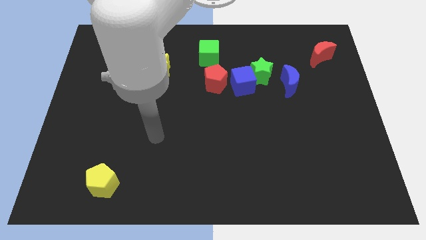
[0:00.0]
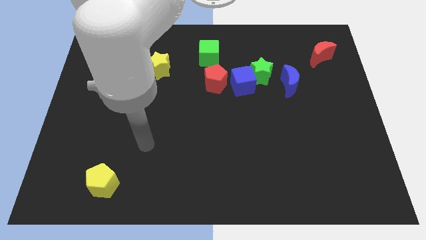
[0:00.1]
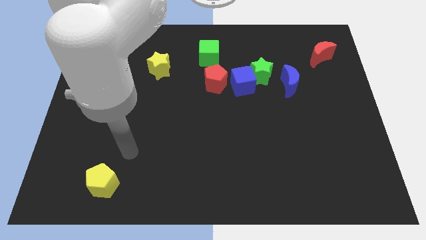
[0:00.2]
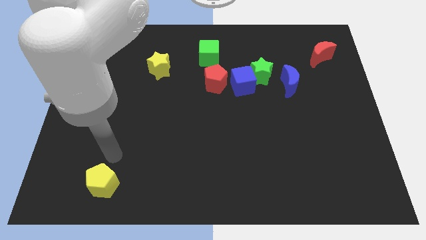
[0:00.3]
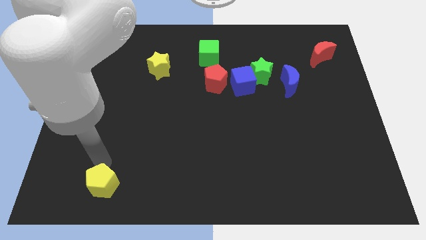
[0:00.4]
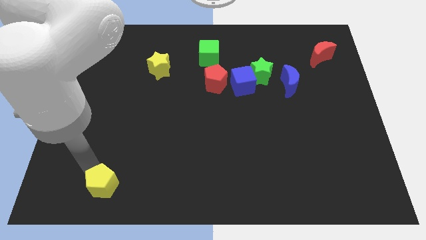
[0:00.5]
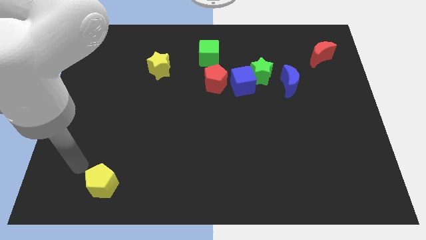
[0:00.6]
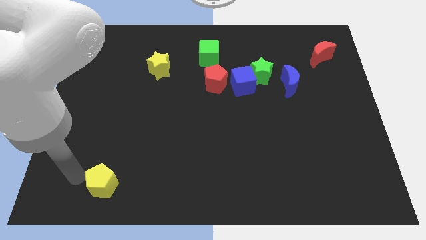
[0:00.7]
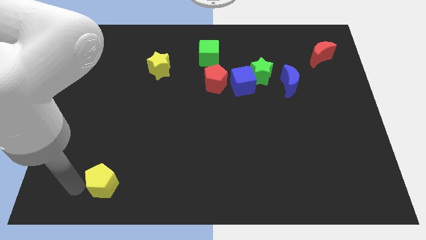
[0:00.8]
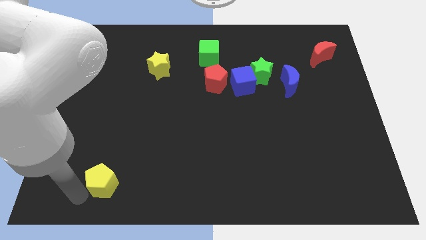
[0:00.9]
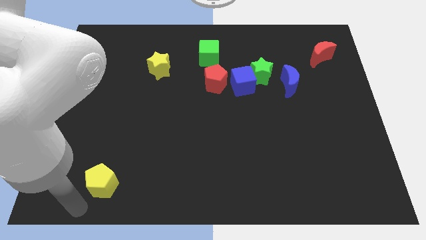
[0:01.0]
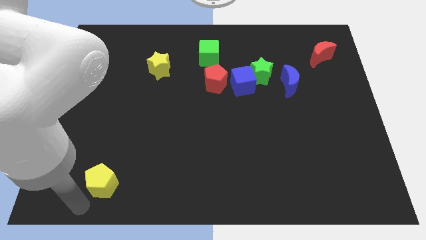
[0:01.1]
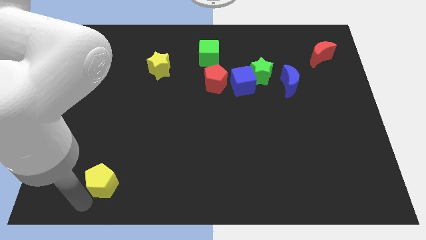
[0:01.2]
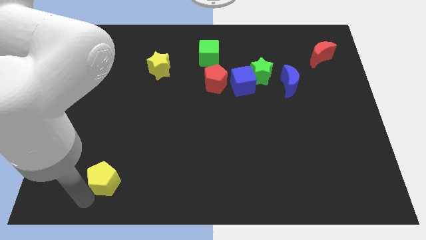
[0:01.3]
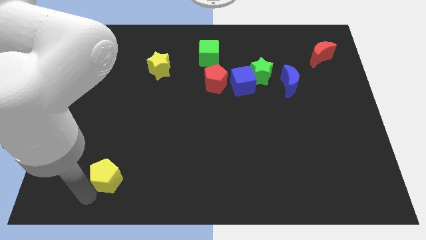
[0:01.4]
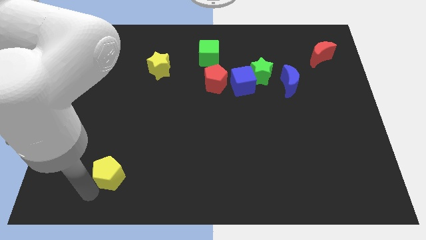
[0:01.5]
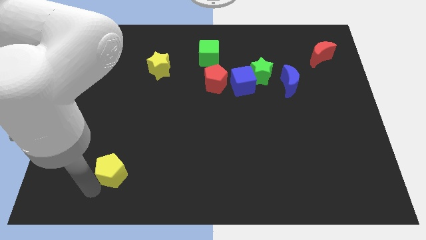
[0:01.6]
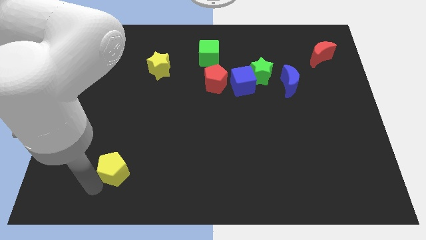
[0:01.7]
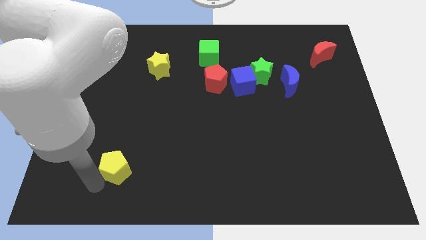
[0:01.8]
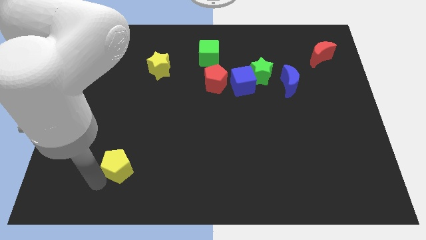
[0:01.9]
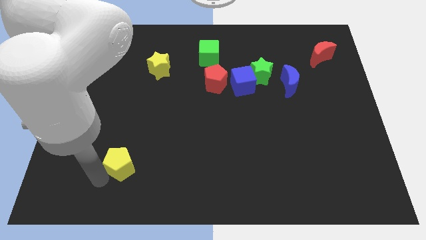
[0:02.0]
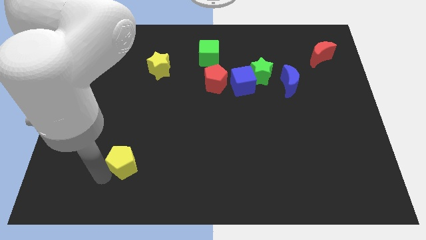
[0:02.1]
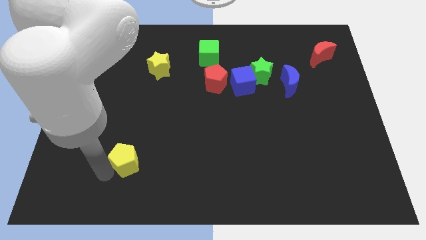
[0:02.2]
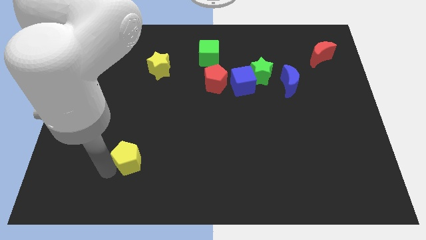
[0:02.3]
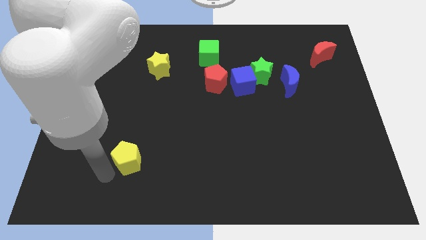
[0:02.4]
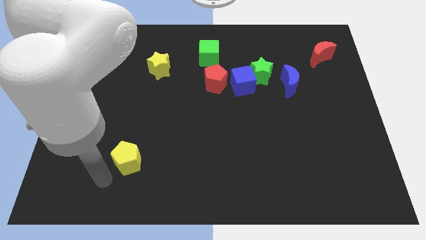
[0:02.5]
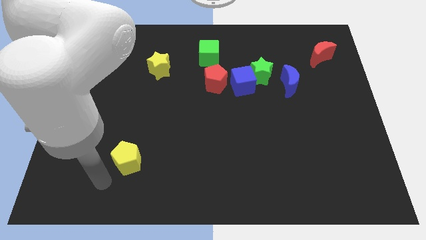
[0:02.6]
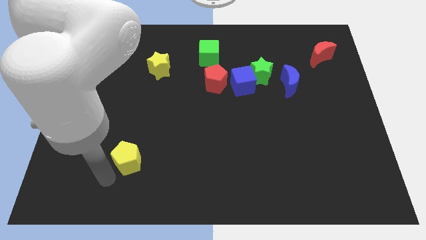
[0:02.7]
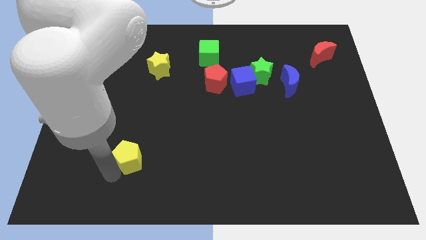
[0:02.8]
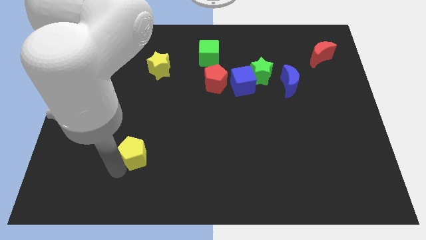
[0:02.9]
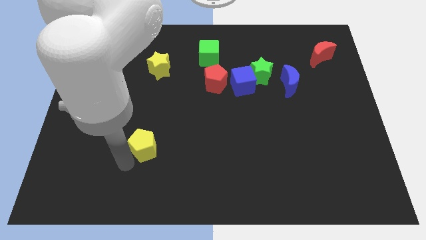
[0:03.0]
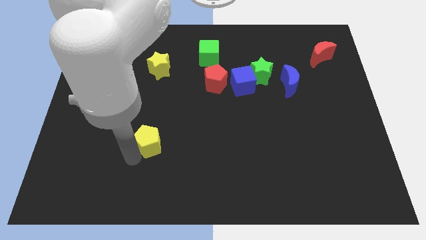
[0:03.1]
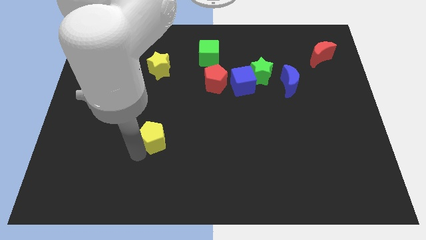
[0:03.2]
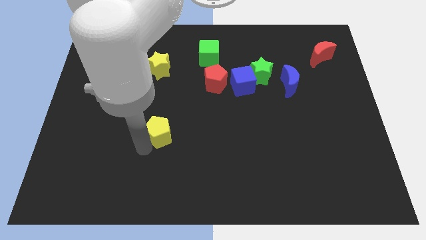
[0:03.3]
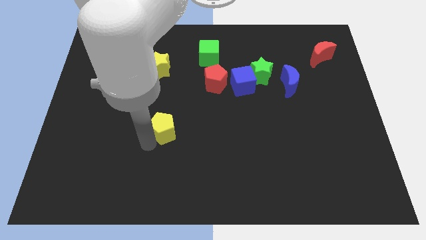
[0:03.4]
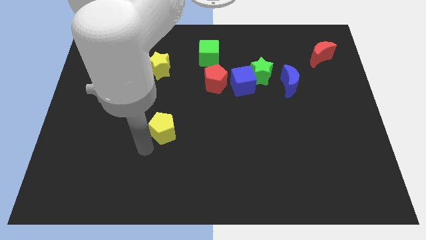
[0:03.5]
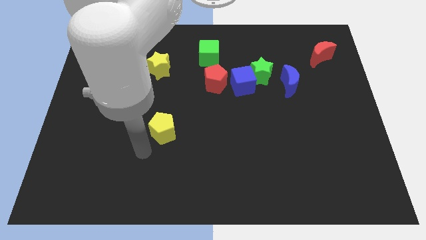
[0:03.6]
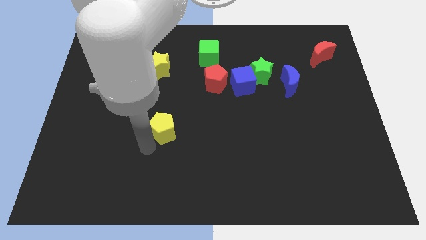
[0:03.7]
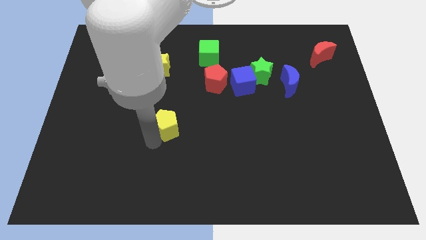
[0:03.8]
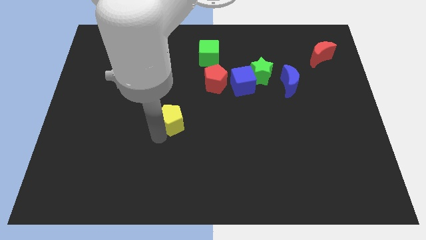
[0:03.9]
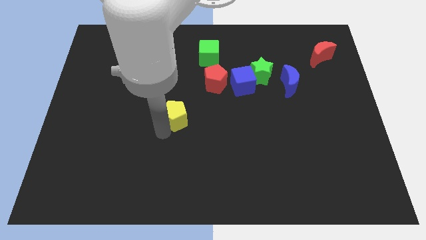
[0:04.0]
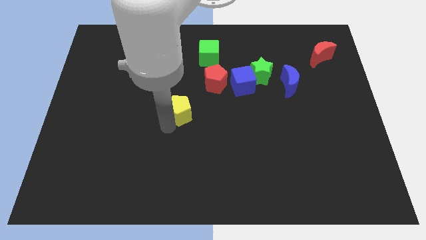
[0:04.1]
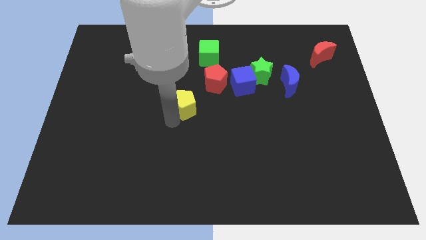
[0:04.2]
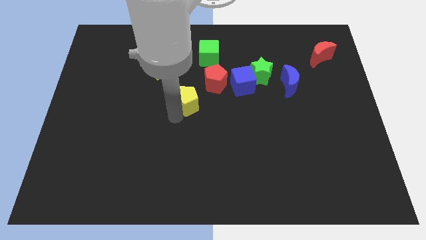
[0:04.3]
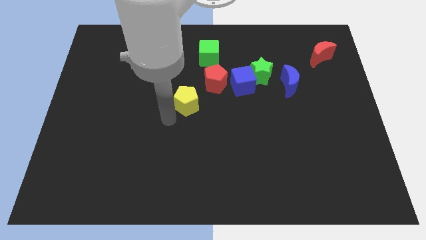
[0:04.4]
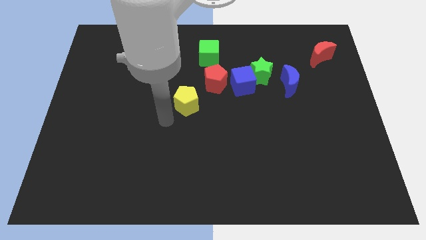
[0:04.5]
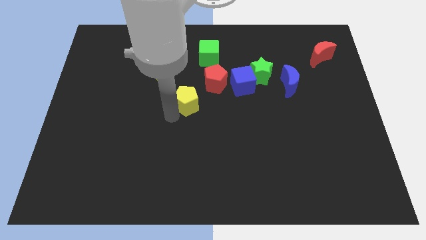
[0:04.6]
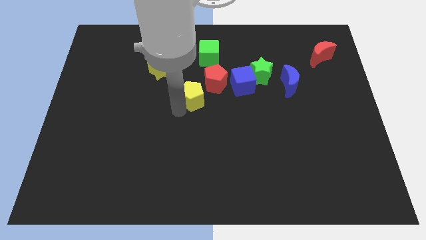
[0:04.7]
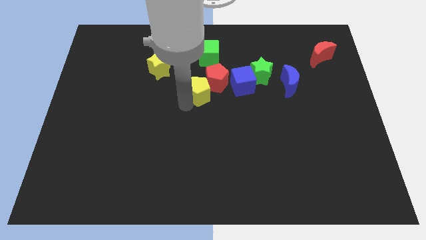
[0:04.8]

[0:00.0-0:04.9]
put the yellow pentagon towards the red pentagon

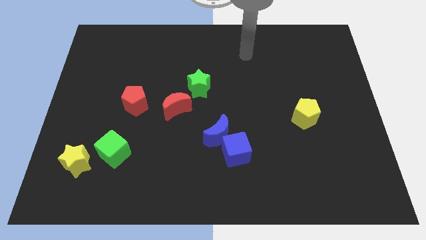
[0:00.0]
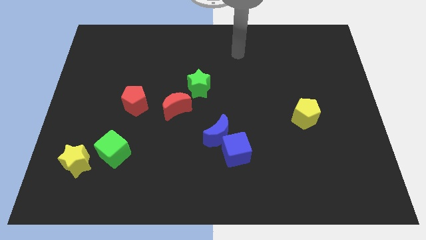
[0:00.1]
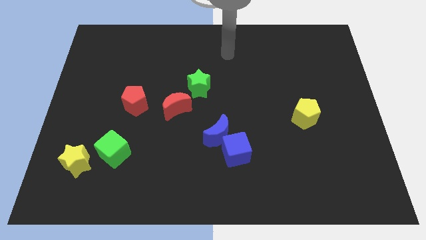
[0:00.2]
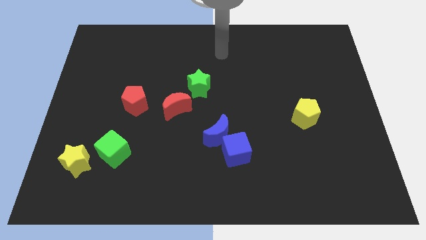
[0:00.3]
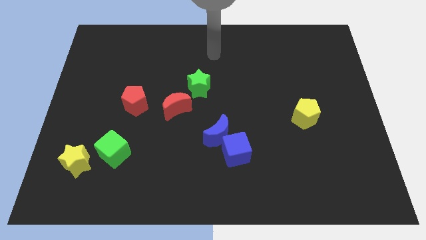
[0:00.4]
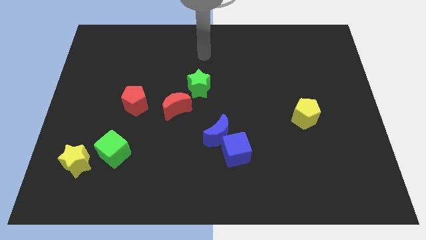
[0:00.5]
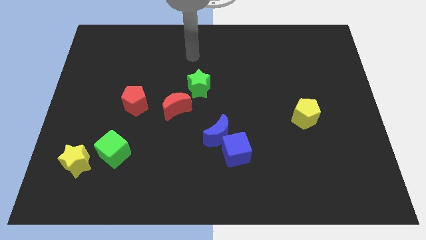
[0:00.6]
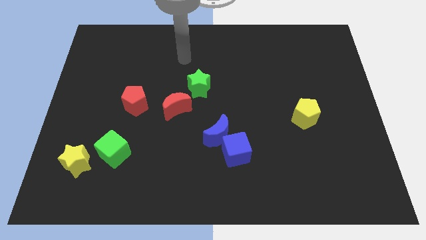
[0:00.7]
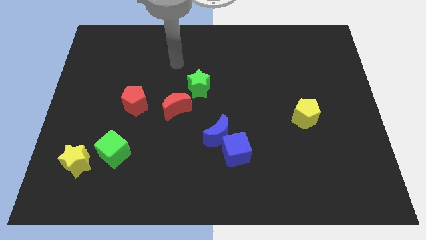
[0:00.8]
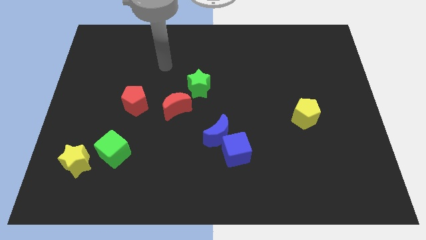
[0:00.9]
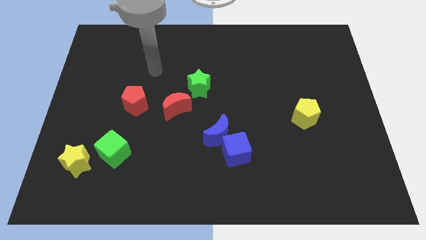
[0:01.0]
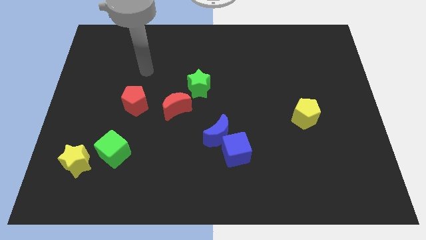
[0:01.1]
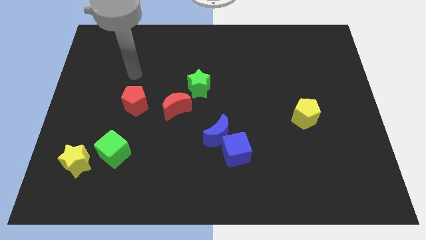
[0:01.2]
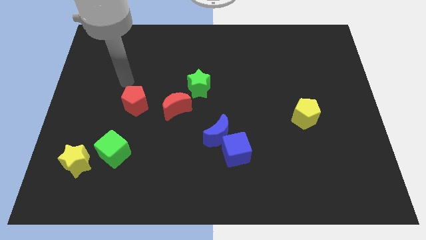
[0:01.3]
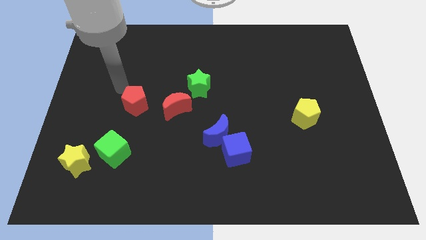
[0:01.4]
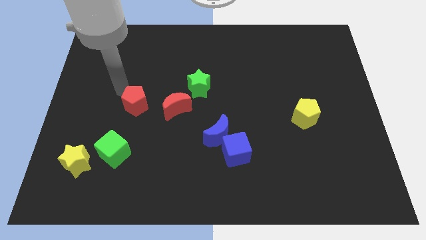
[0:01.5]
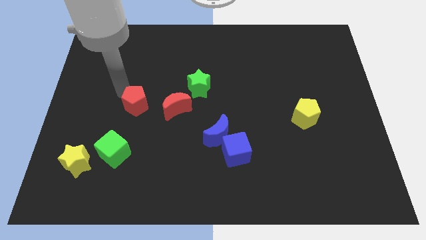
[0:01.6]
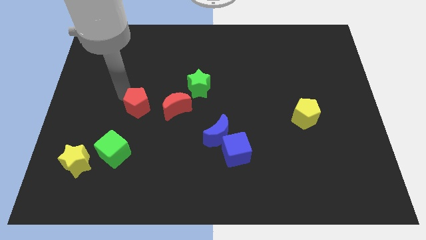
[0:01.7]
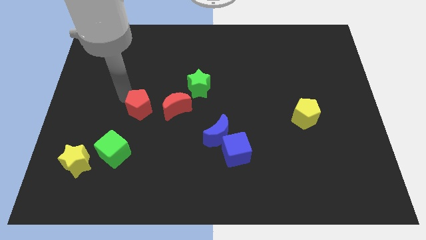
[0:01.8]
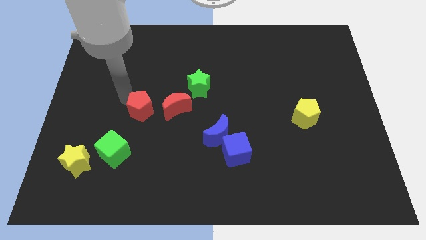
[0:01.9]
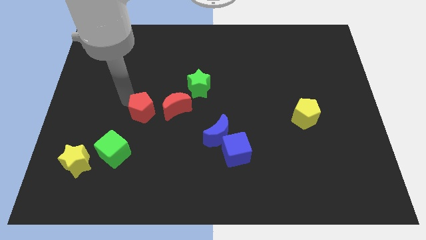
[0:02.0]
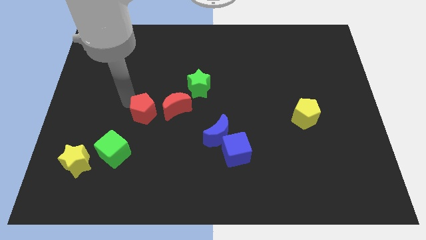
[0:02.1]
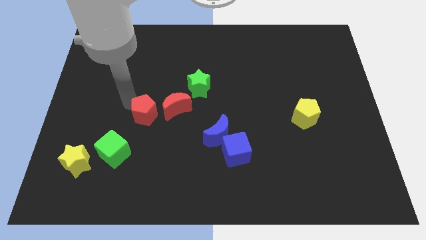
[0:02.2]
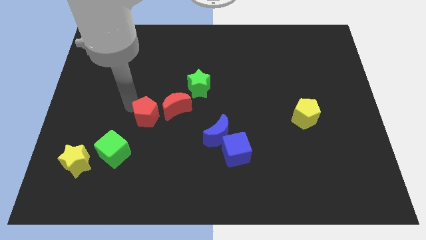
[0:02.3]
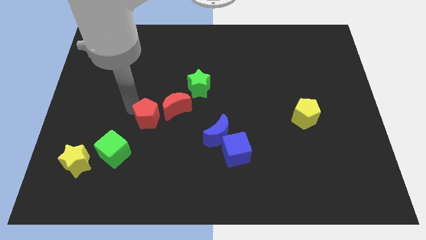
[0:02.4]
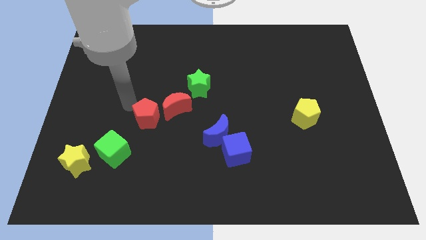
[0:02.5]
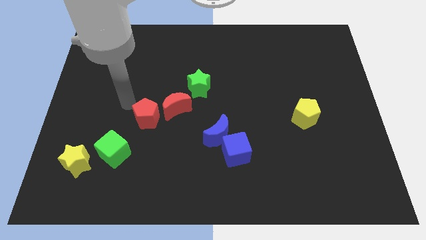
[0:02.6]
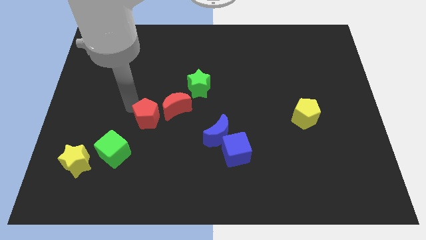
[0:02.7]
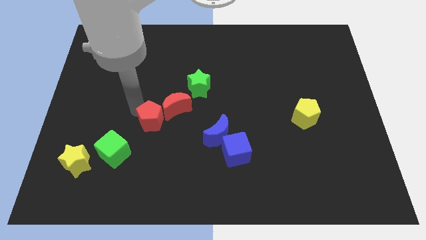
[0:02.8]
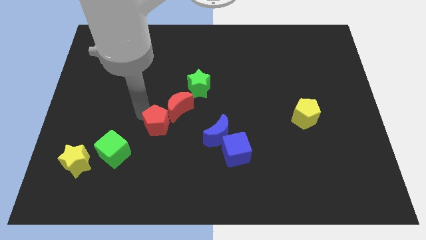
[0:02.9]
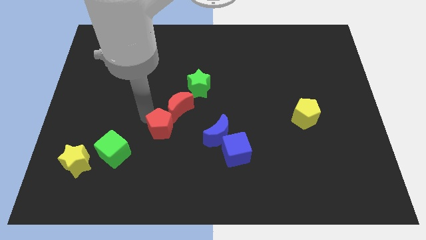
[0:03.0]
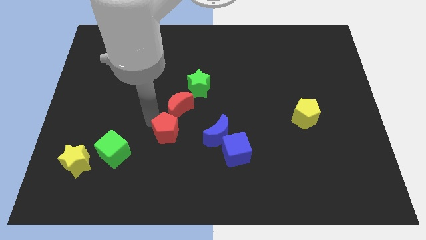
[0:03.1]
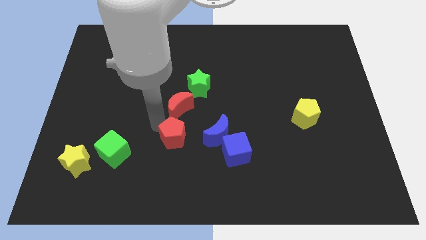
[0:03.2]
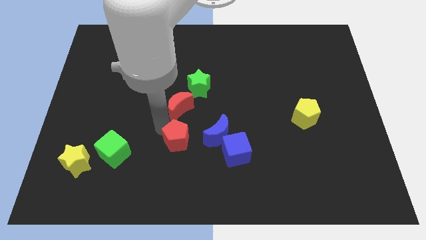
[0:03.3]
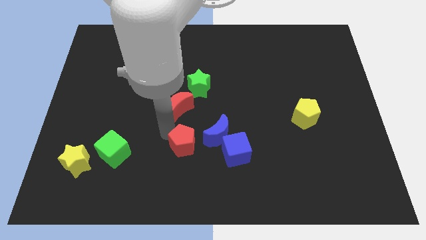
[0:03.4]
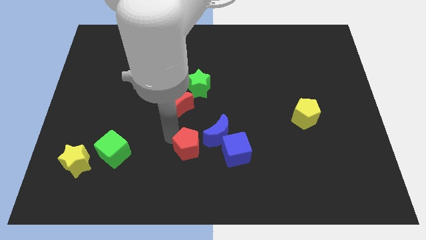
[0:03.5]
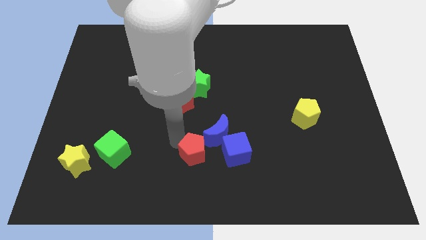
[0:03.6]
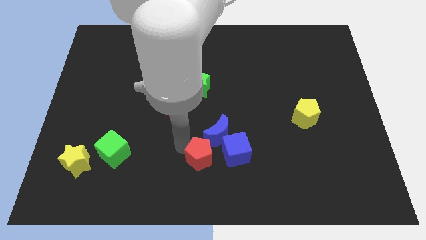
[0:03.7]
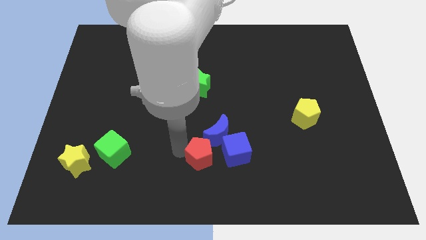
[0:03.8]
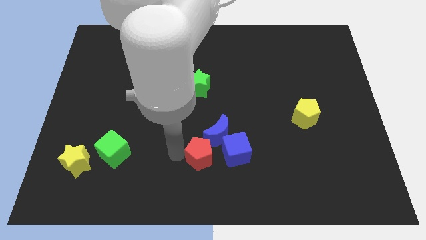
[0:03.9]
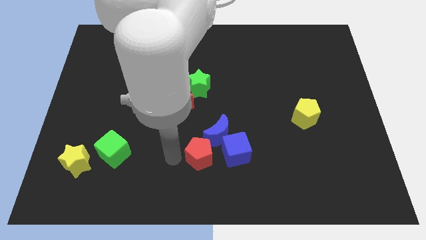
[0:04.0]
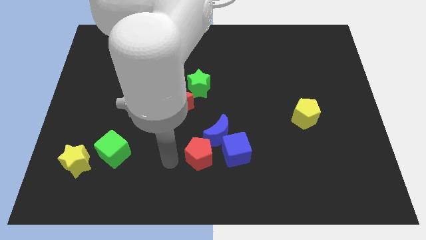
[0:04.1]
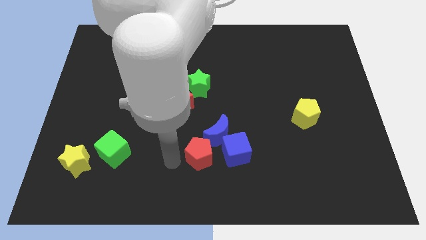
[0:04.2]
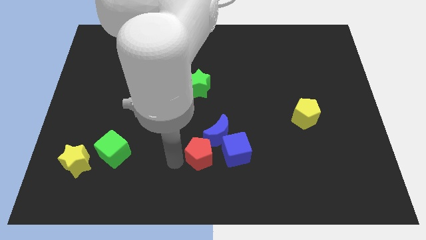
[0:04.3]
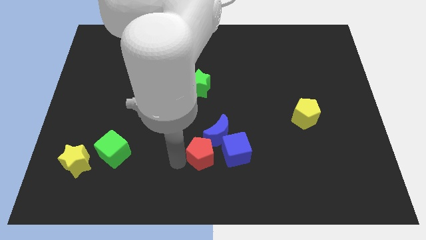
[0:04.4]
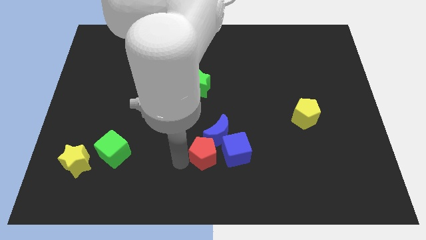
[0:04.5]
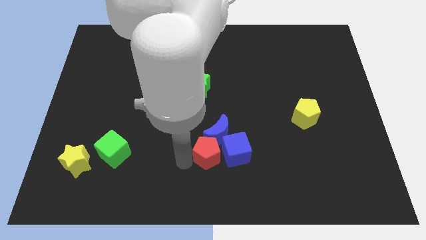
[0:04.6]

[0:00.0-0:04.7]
put the red pentagon next to the blue cube
